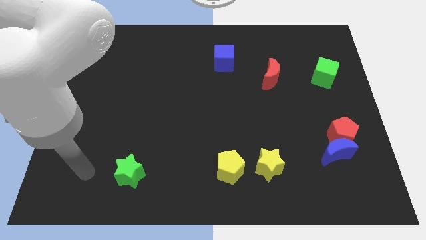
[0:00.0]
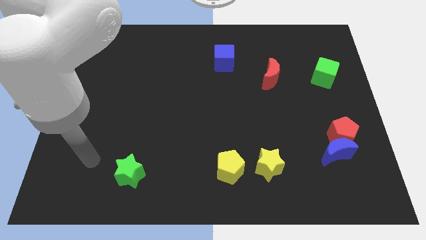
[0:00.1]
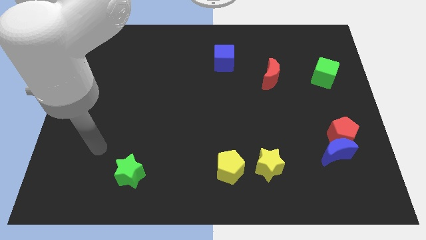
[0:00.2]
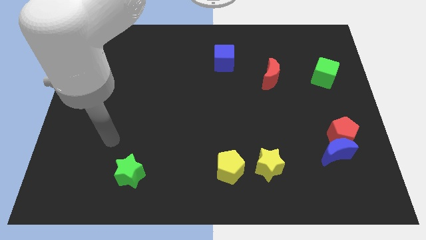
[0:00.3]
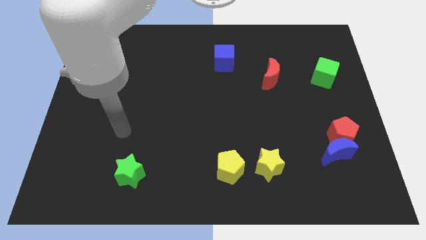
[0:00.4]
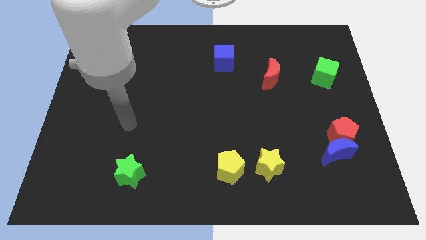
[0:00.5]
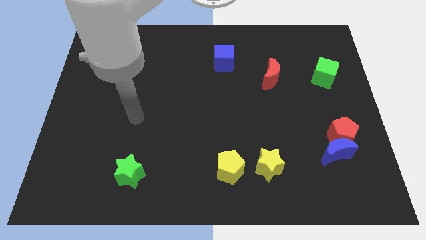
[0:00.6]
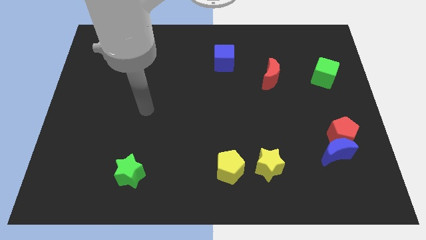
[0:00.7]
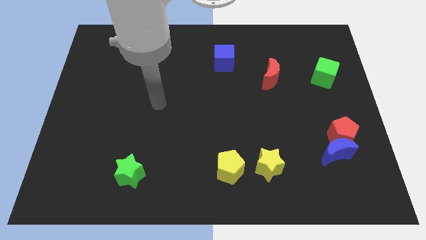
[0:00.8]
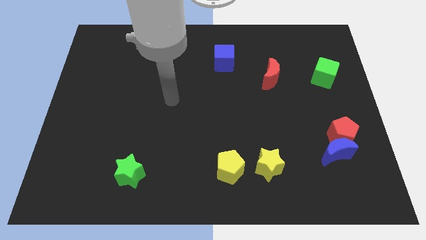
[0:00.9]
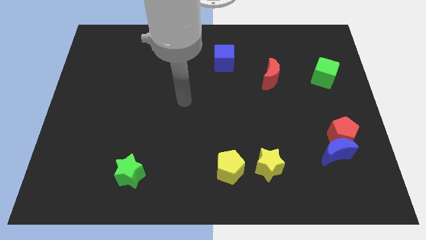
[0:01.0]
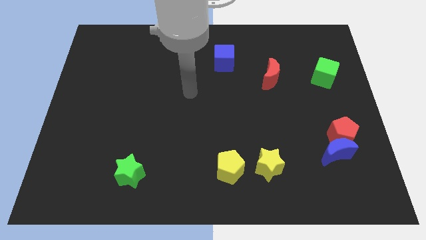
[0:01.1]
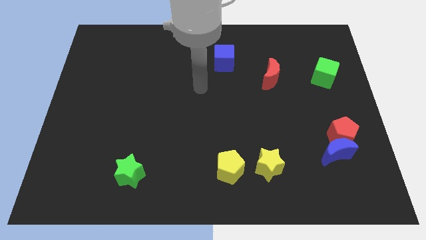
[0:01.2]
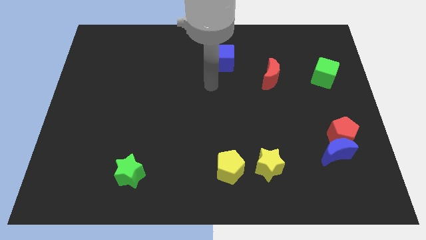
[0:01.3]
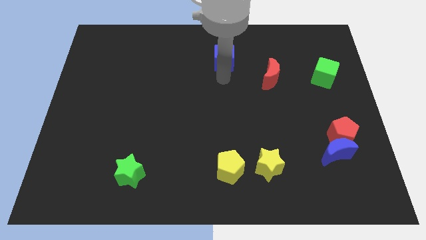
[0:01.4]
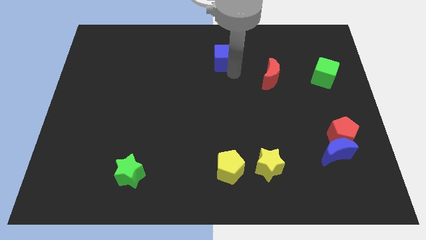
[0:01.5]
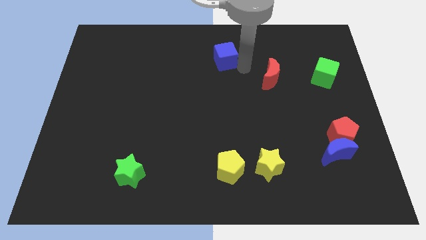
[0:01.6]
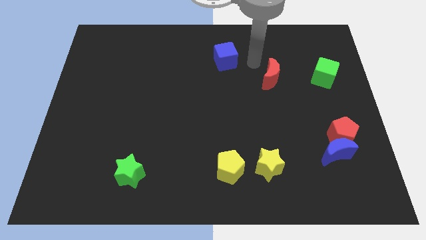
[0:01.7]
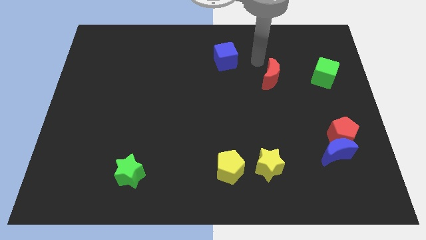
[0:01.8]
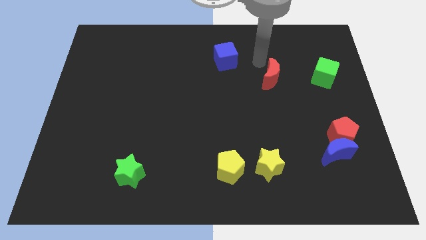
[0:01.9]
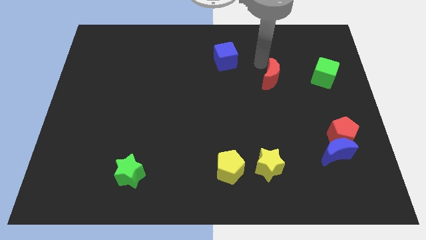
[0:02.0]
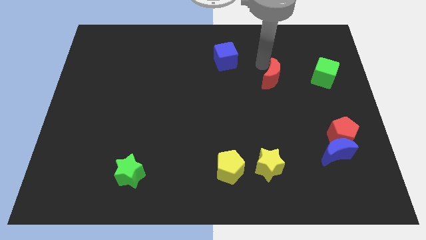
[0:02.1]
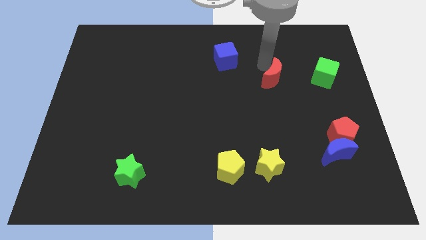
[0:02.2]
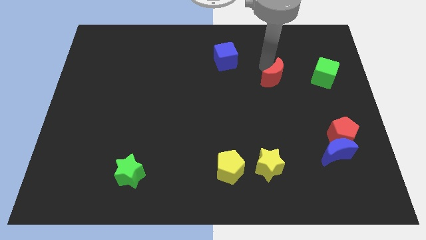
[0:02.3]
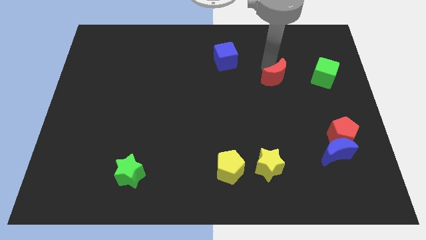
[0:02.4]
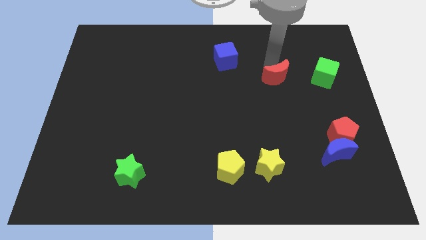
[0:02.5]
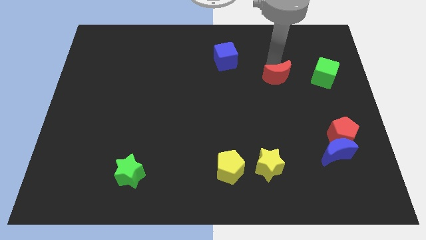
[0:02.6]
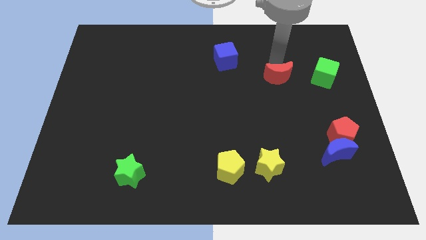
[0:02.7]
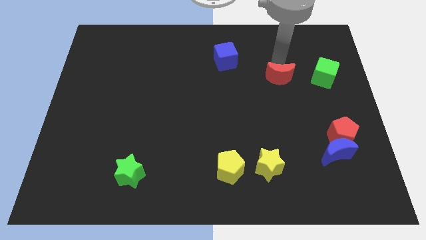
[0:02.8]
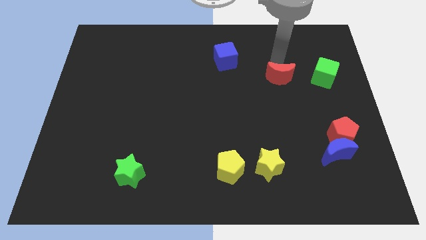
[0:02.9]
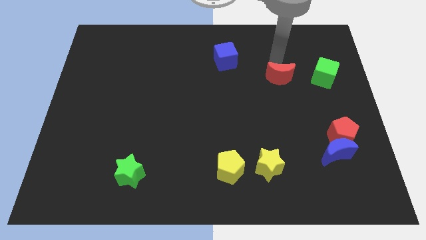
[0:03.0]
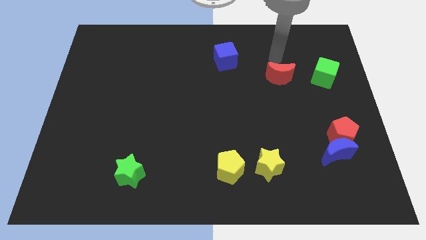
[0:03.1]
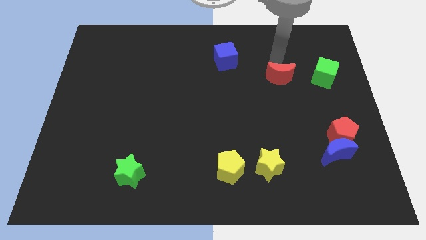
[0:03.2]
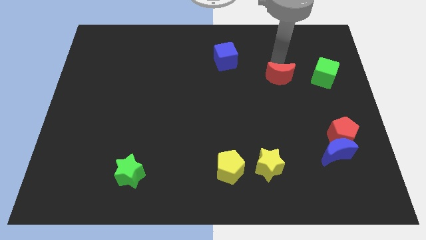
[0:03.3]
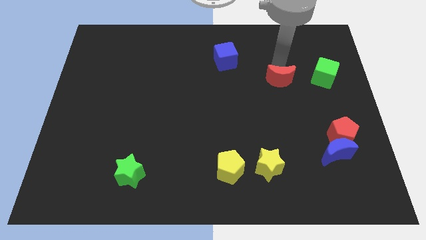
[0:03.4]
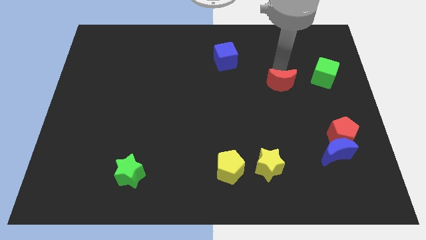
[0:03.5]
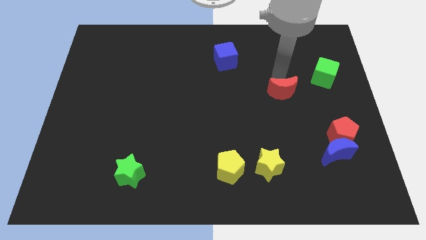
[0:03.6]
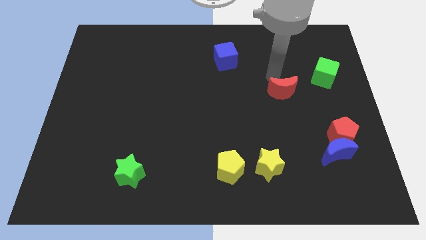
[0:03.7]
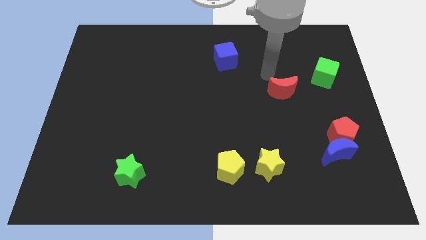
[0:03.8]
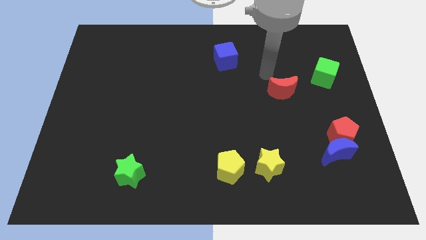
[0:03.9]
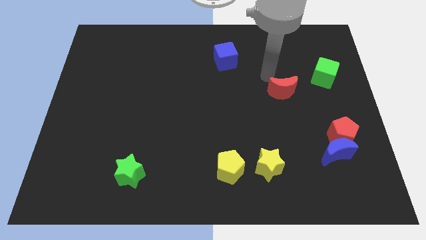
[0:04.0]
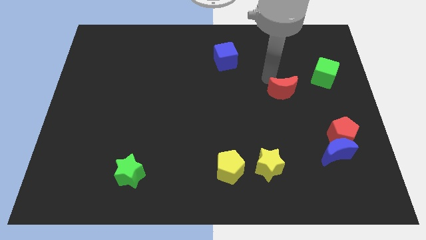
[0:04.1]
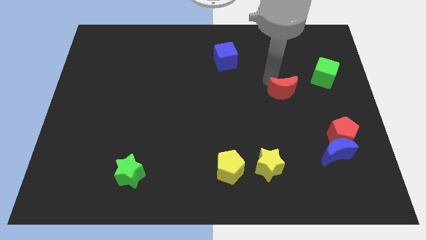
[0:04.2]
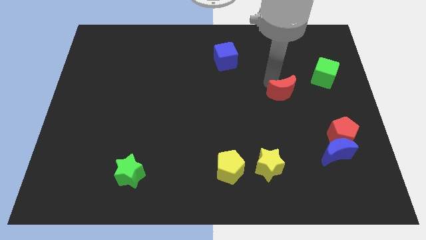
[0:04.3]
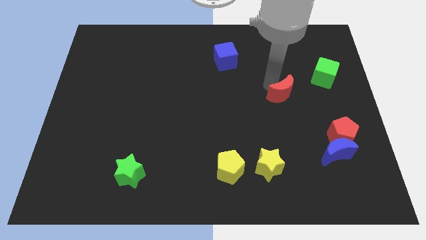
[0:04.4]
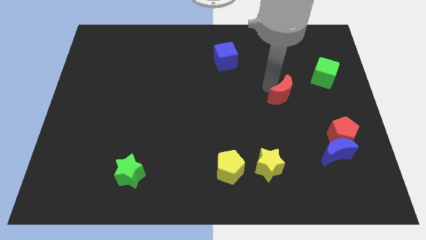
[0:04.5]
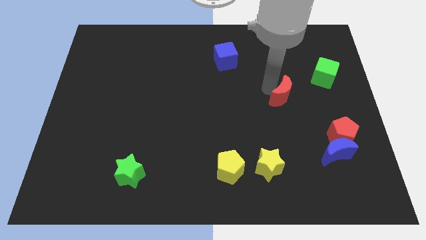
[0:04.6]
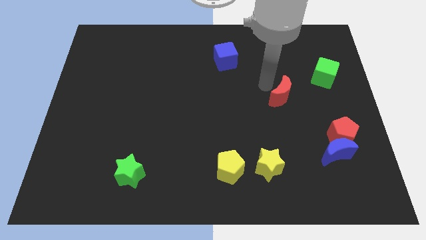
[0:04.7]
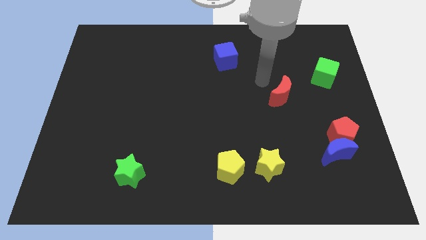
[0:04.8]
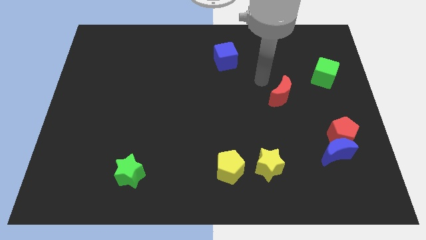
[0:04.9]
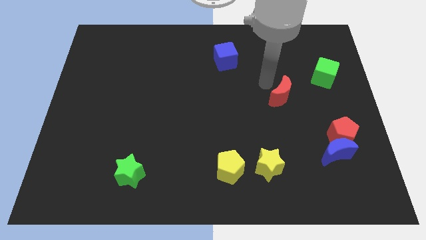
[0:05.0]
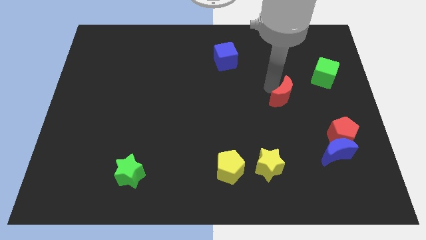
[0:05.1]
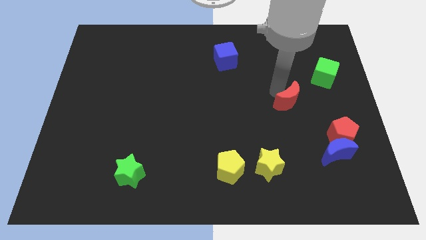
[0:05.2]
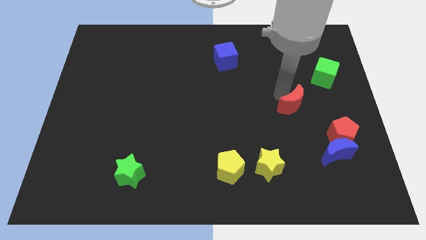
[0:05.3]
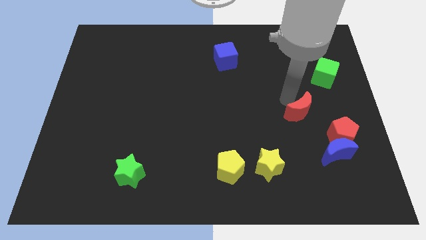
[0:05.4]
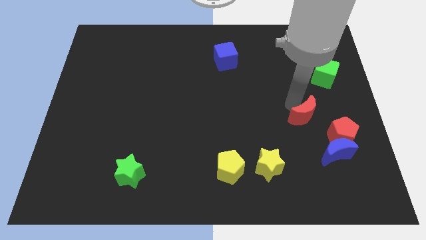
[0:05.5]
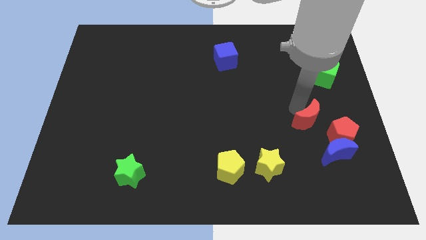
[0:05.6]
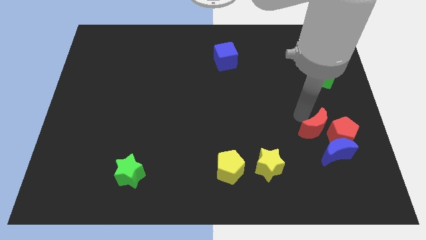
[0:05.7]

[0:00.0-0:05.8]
put the red moon close to the red pentagon

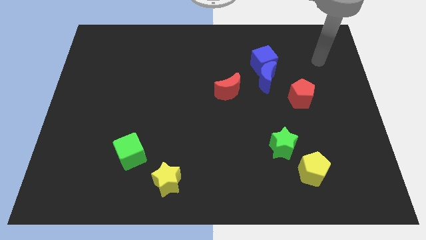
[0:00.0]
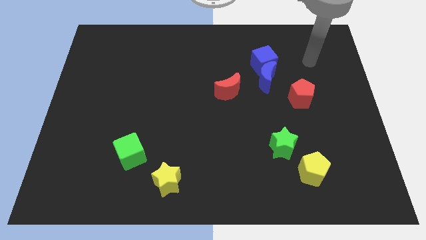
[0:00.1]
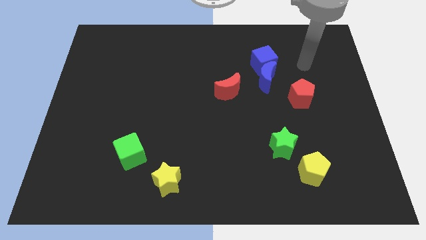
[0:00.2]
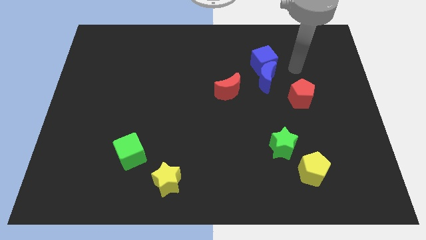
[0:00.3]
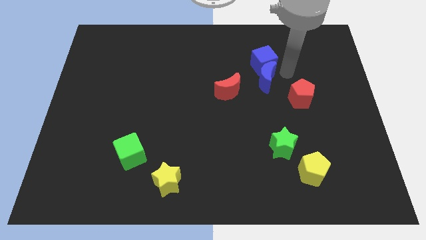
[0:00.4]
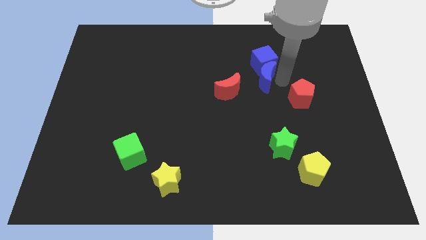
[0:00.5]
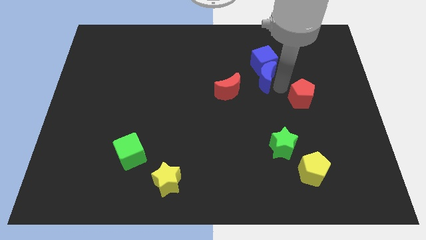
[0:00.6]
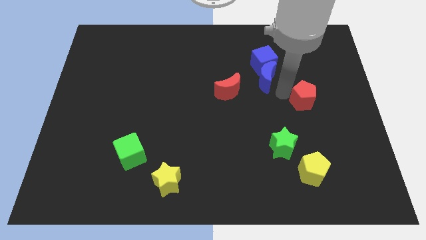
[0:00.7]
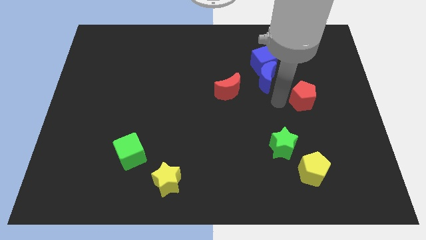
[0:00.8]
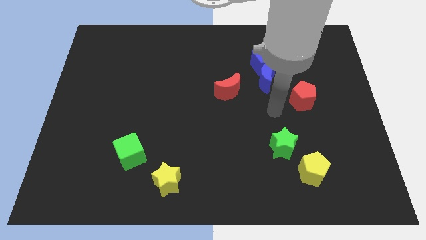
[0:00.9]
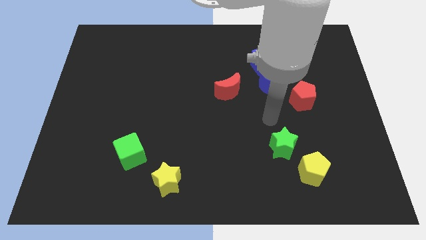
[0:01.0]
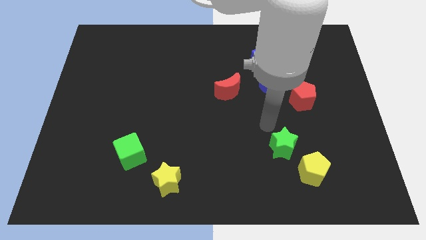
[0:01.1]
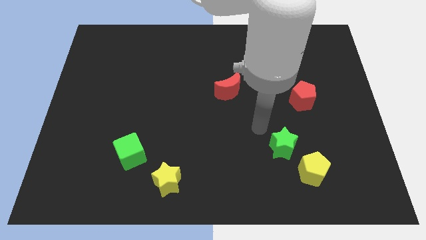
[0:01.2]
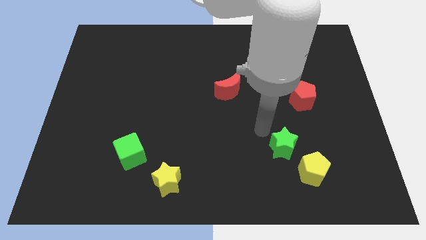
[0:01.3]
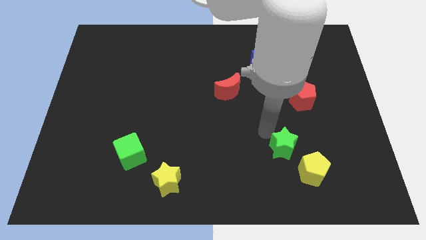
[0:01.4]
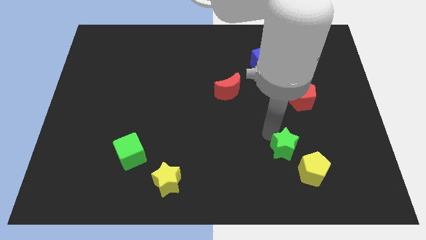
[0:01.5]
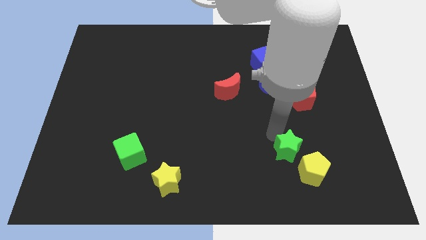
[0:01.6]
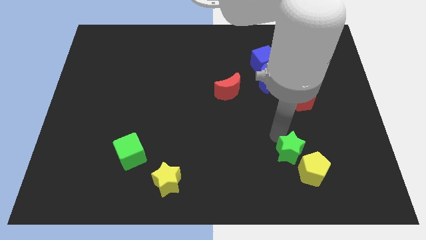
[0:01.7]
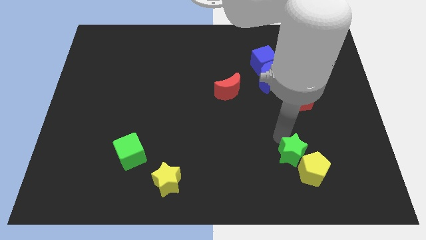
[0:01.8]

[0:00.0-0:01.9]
push the green star to the yellow pentagon
